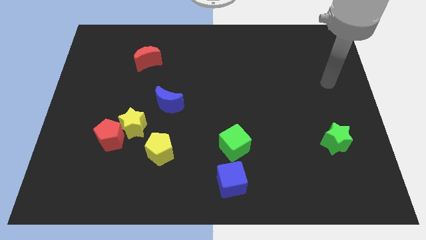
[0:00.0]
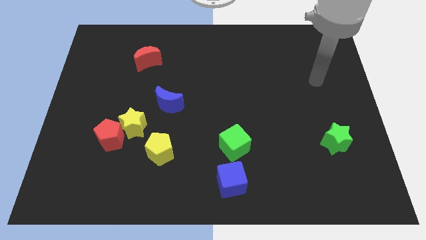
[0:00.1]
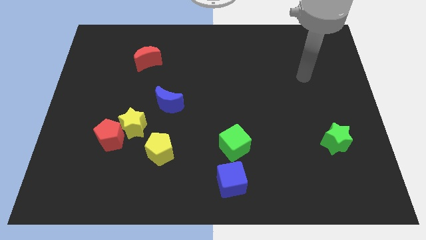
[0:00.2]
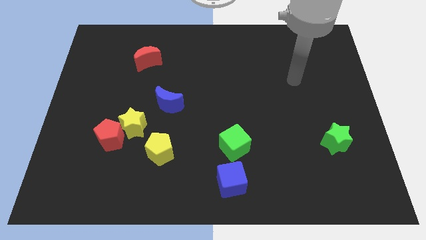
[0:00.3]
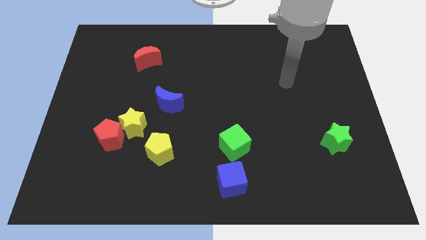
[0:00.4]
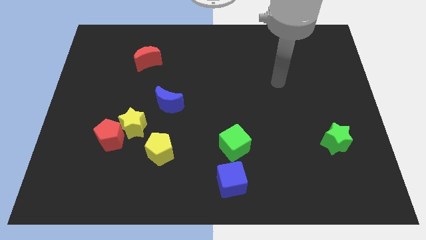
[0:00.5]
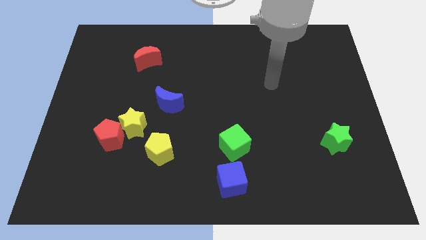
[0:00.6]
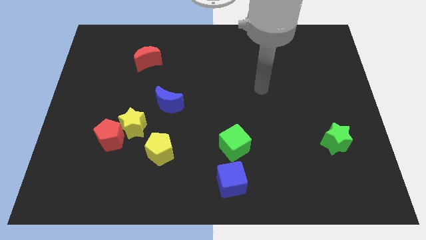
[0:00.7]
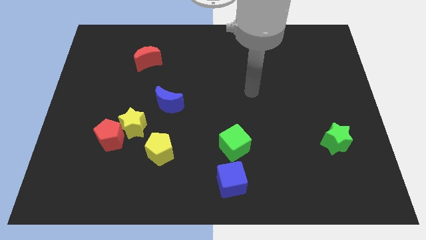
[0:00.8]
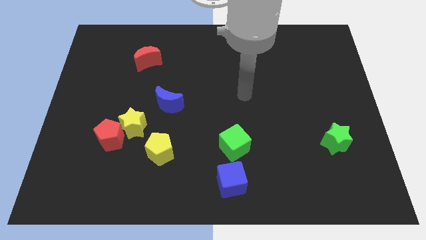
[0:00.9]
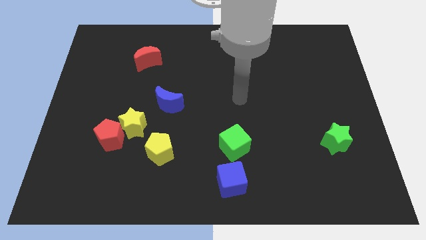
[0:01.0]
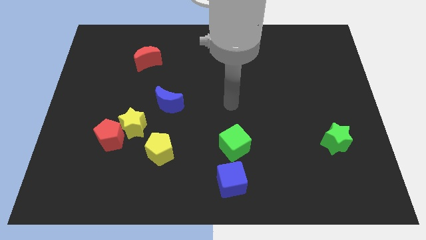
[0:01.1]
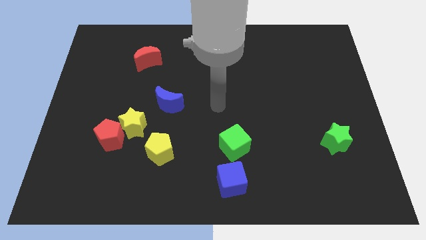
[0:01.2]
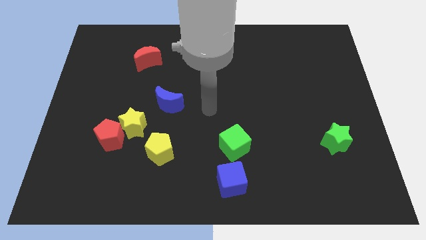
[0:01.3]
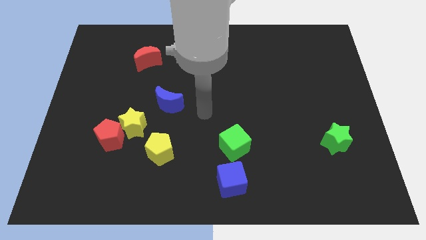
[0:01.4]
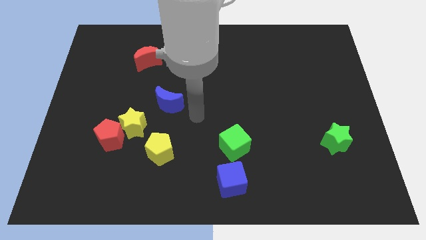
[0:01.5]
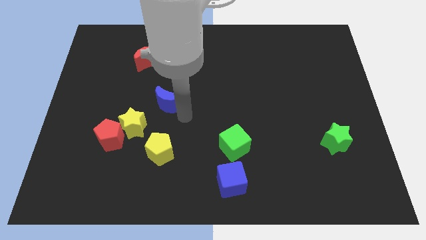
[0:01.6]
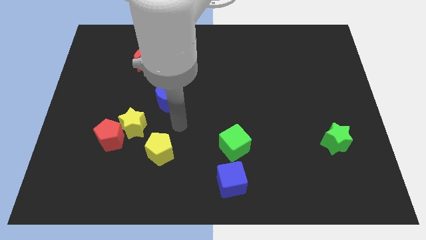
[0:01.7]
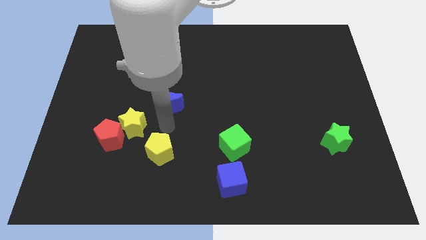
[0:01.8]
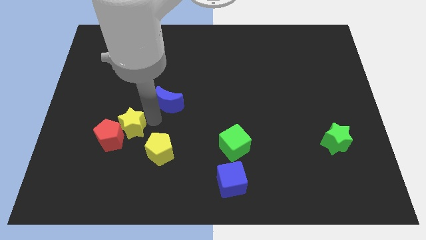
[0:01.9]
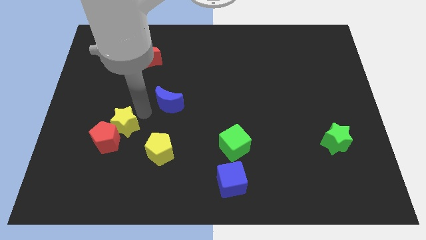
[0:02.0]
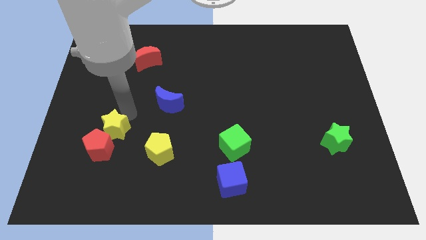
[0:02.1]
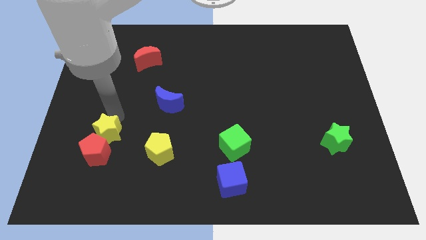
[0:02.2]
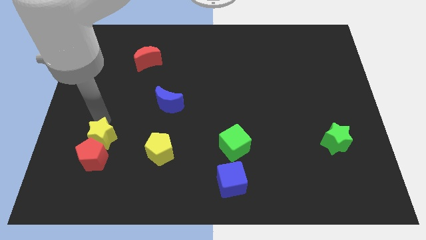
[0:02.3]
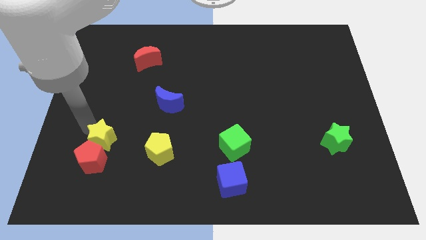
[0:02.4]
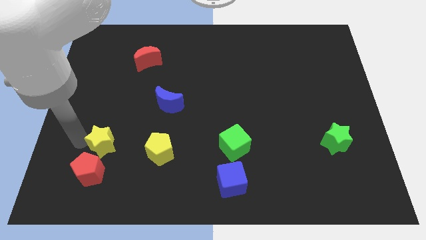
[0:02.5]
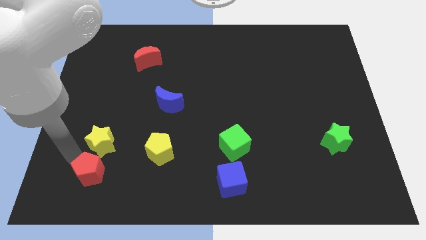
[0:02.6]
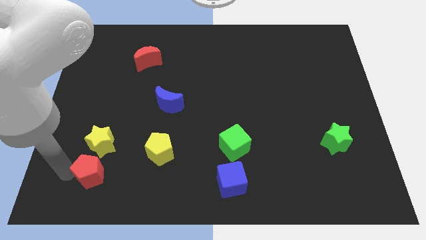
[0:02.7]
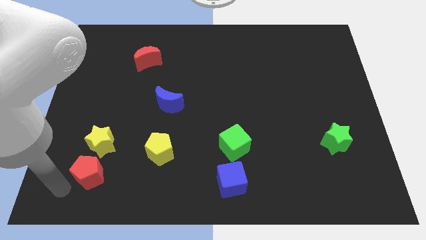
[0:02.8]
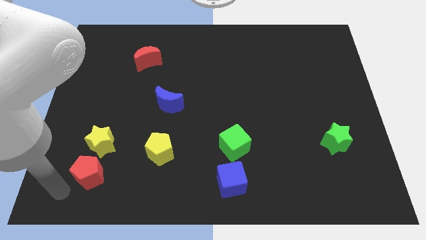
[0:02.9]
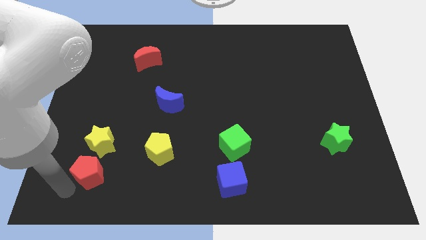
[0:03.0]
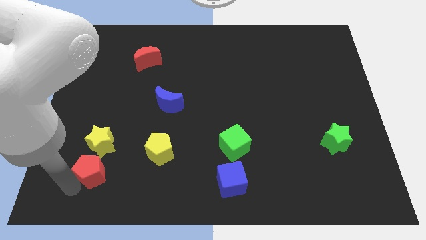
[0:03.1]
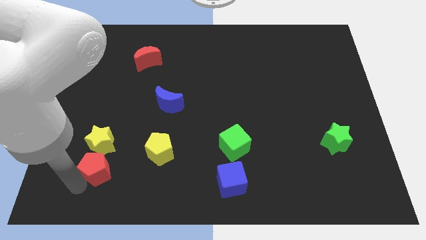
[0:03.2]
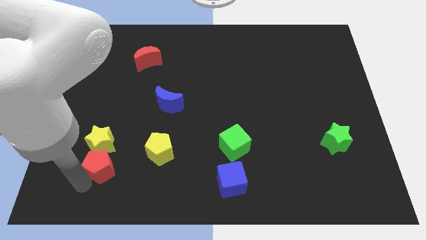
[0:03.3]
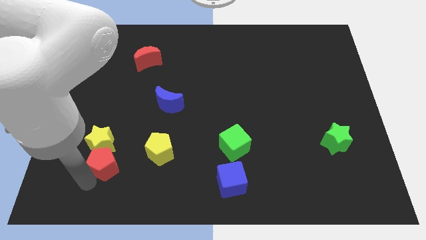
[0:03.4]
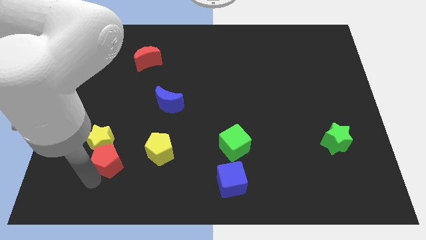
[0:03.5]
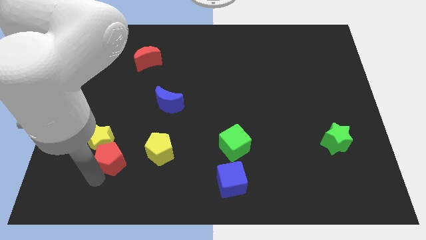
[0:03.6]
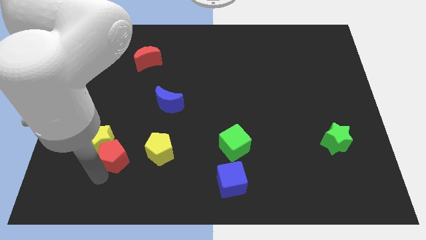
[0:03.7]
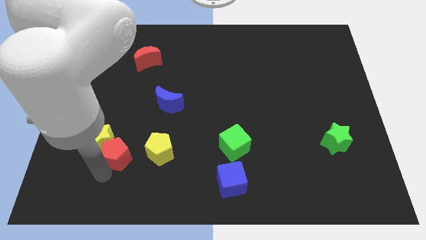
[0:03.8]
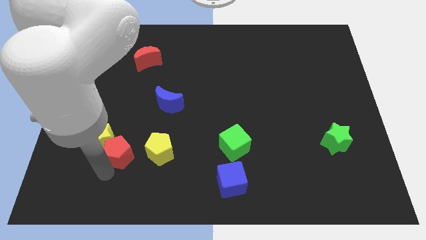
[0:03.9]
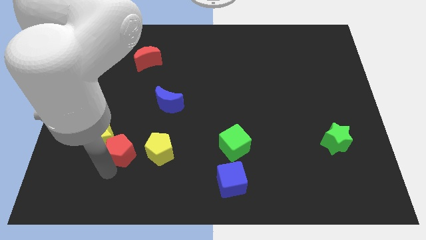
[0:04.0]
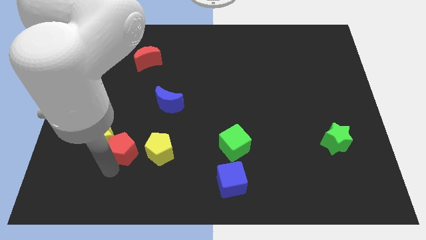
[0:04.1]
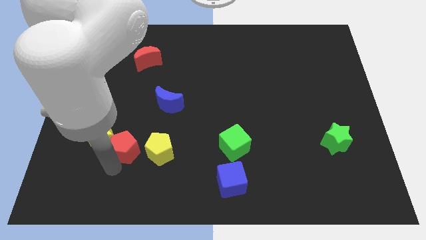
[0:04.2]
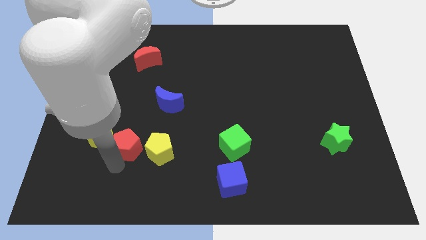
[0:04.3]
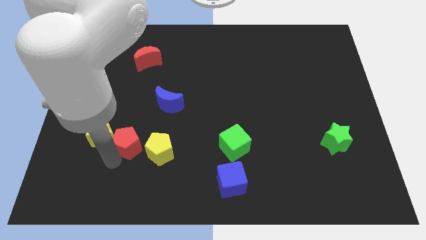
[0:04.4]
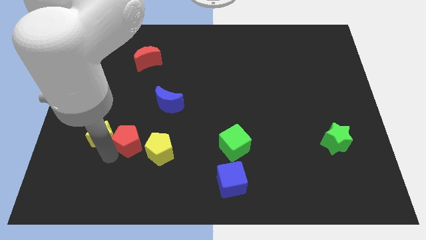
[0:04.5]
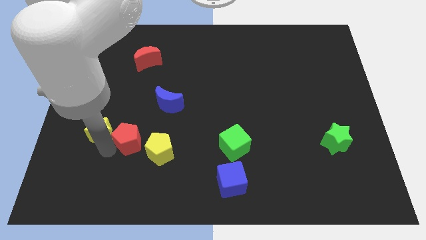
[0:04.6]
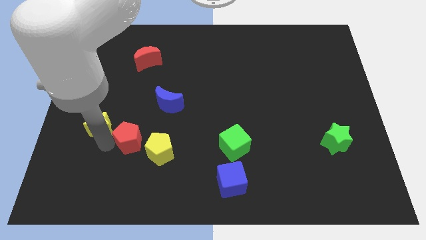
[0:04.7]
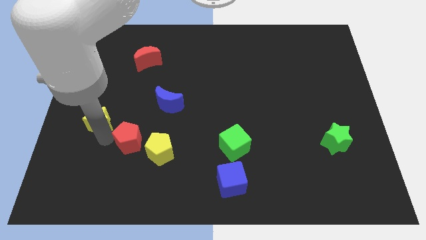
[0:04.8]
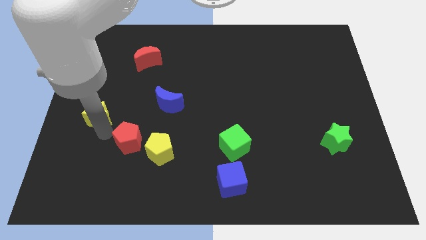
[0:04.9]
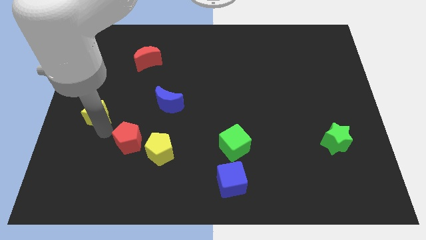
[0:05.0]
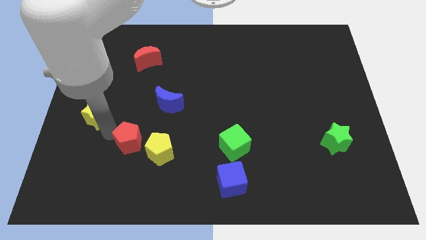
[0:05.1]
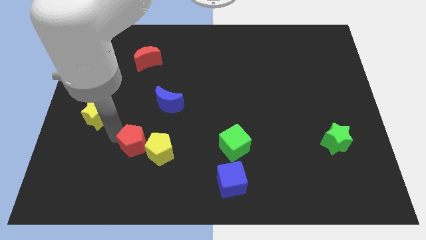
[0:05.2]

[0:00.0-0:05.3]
slide the red pentagon next to the yellow pentagon

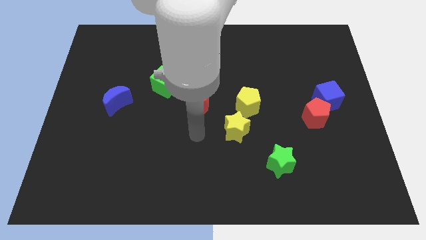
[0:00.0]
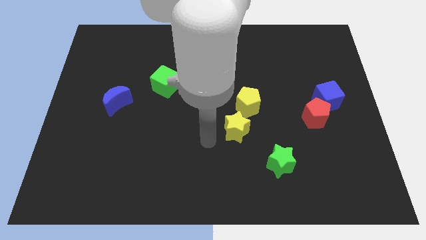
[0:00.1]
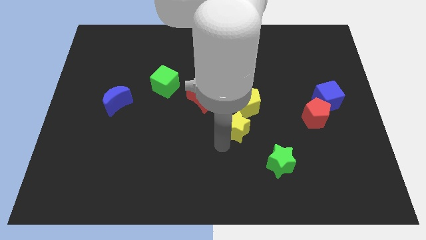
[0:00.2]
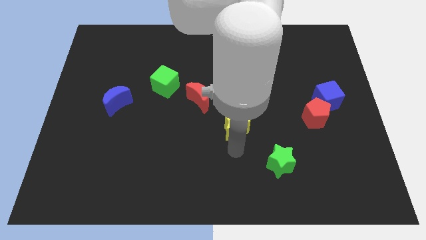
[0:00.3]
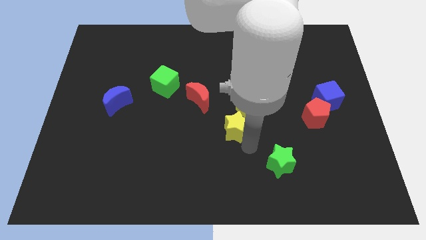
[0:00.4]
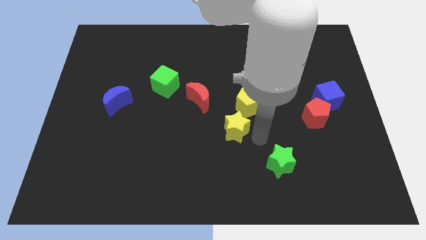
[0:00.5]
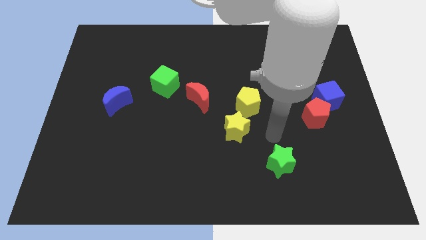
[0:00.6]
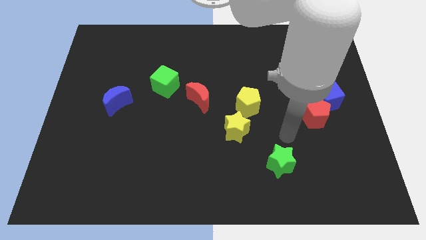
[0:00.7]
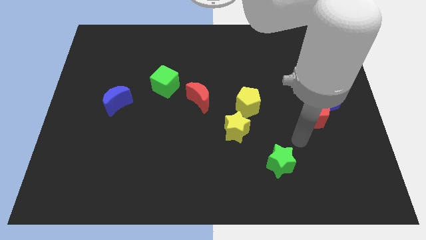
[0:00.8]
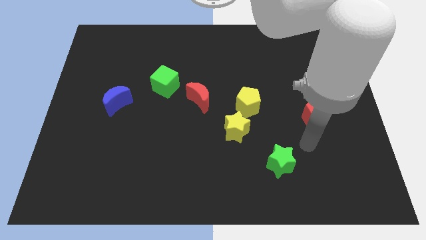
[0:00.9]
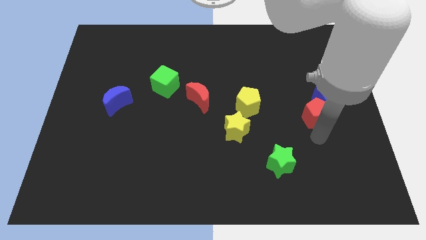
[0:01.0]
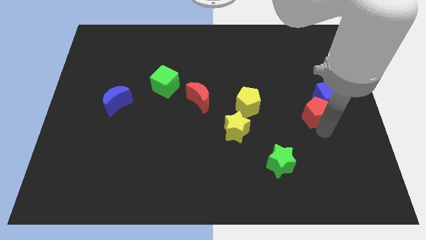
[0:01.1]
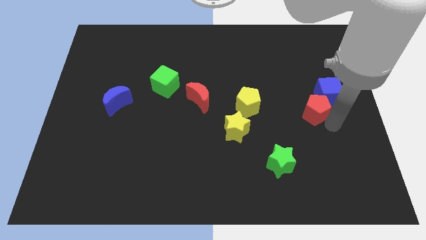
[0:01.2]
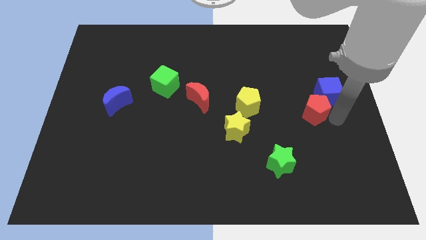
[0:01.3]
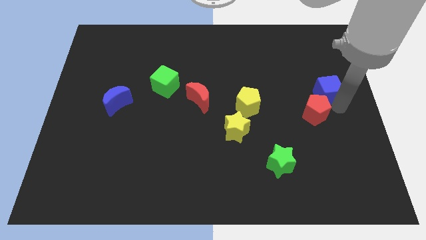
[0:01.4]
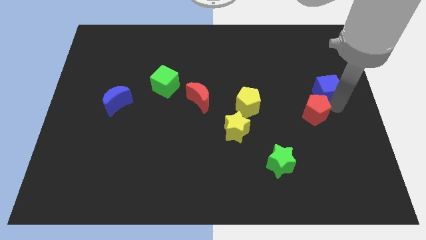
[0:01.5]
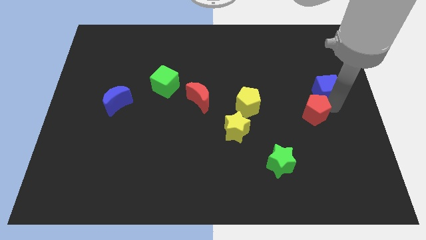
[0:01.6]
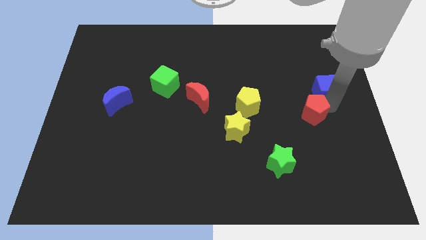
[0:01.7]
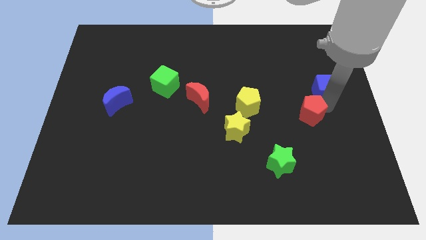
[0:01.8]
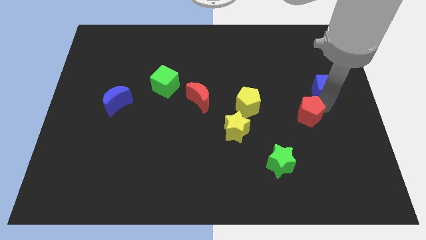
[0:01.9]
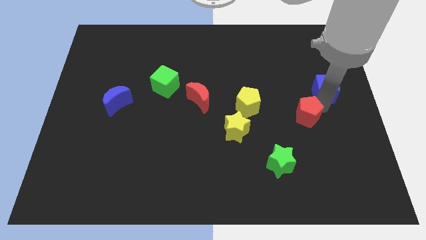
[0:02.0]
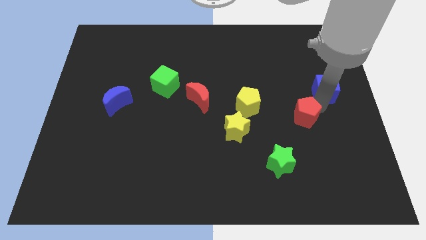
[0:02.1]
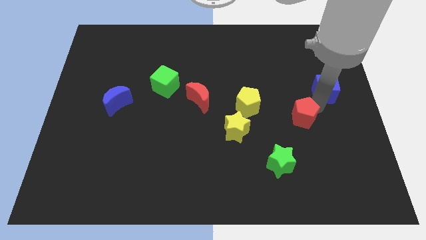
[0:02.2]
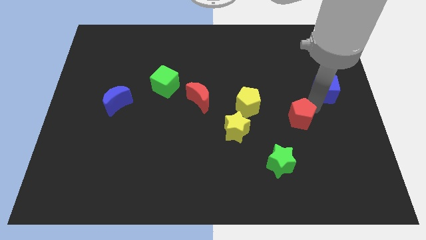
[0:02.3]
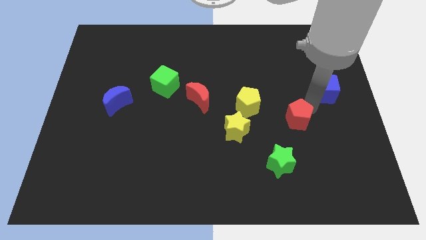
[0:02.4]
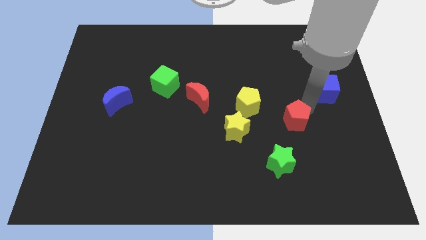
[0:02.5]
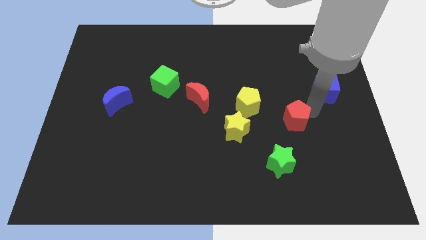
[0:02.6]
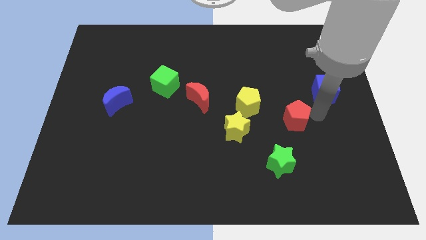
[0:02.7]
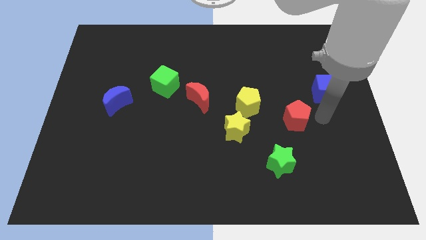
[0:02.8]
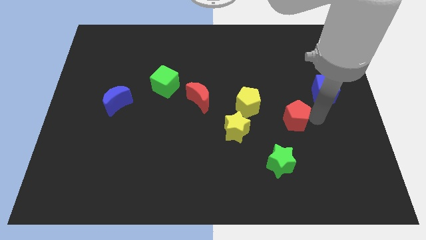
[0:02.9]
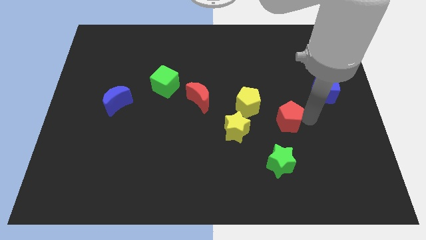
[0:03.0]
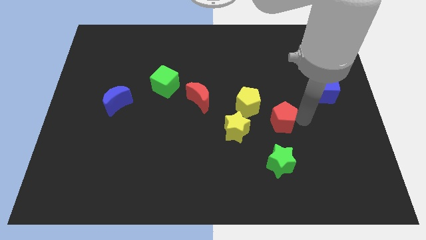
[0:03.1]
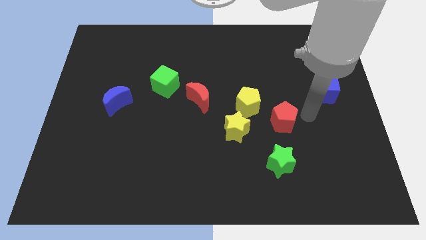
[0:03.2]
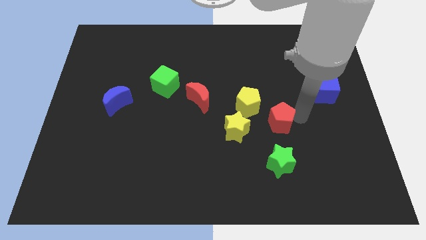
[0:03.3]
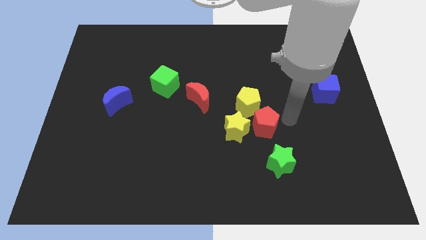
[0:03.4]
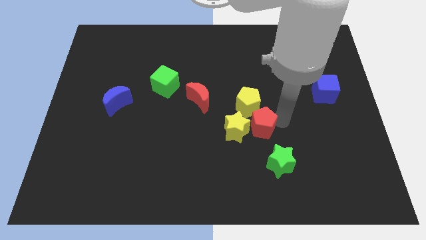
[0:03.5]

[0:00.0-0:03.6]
push the red pentagon towards the yellow star
